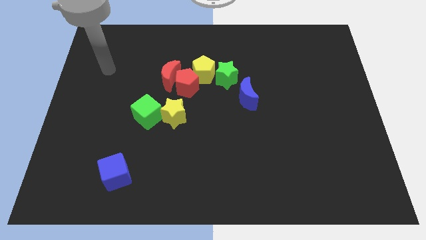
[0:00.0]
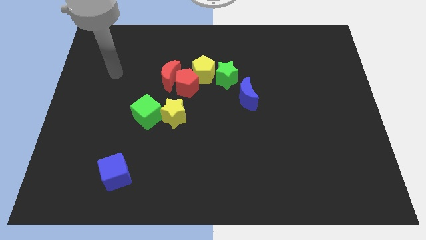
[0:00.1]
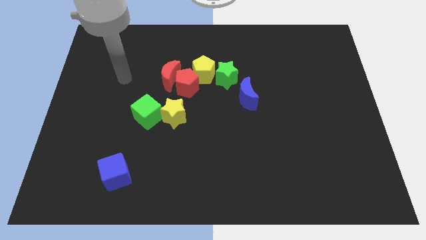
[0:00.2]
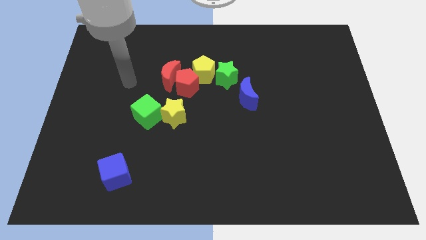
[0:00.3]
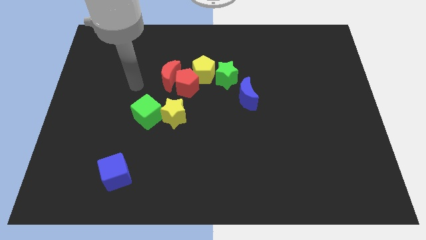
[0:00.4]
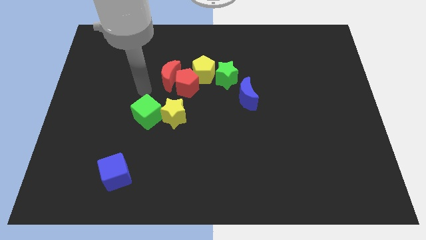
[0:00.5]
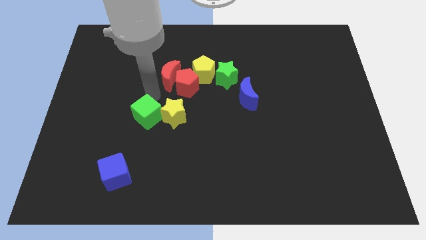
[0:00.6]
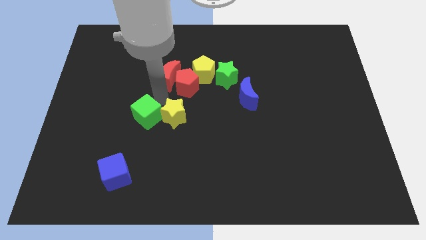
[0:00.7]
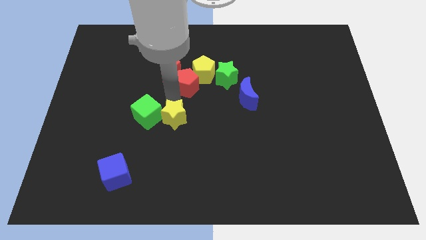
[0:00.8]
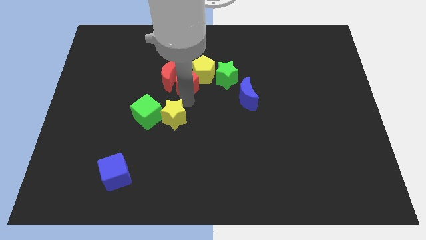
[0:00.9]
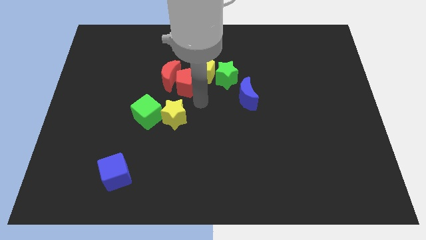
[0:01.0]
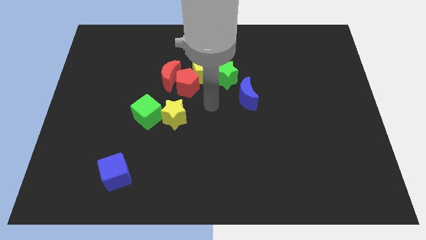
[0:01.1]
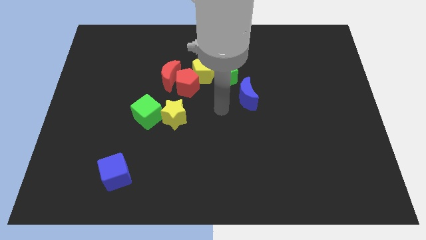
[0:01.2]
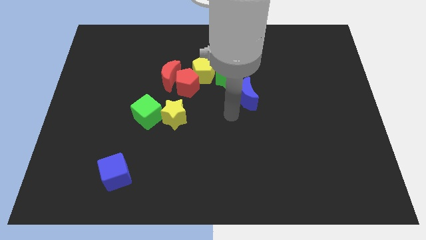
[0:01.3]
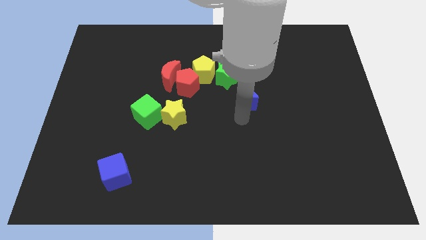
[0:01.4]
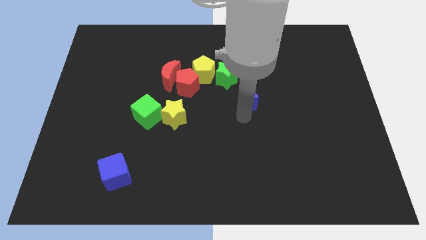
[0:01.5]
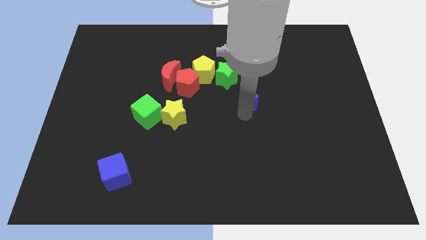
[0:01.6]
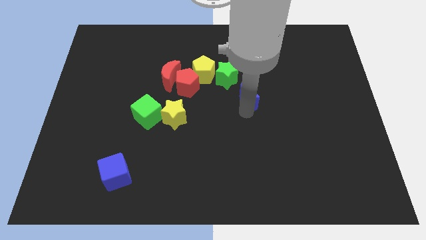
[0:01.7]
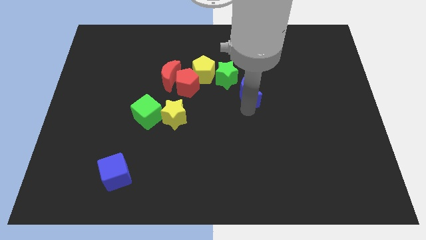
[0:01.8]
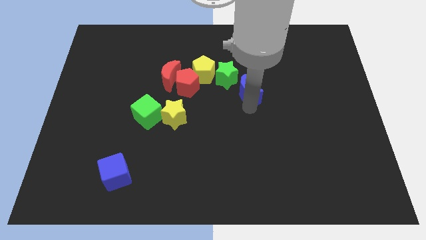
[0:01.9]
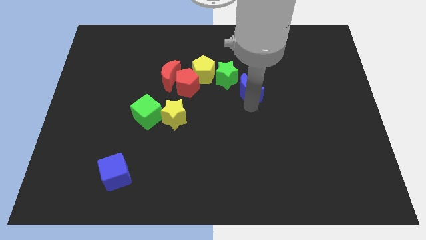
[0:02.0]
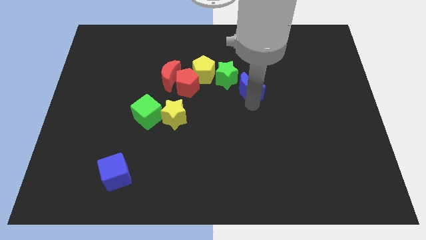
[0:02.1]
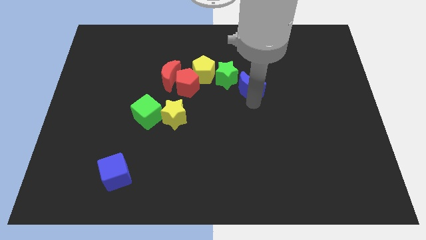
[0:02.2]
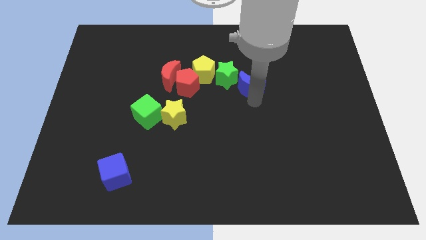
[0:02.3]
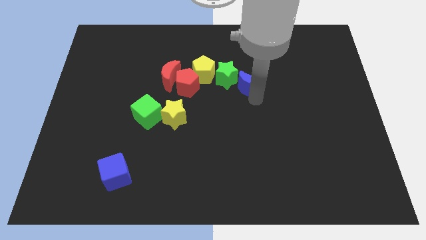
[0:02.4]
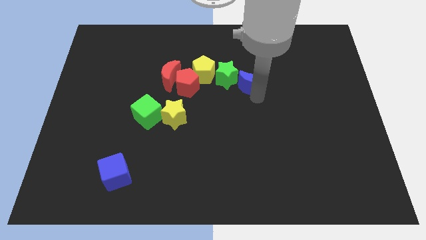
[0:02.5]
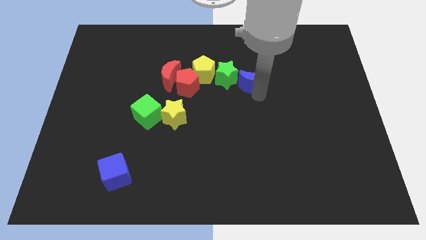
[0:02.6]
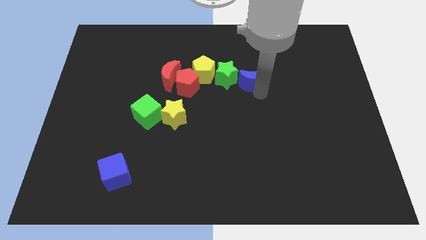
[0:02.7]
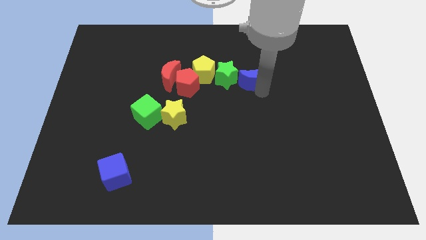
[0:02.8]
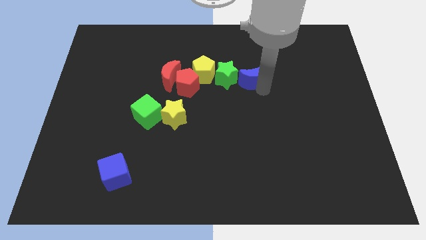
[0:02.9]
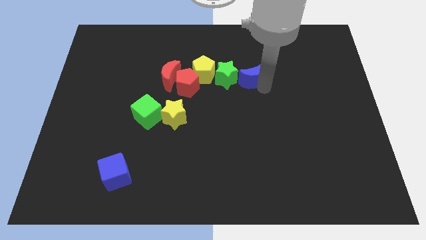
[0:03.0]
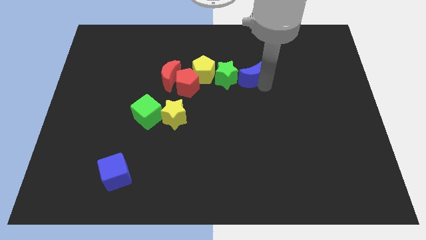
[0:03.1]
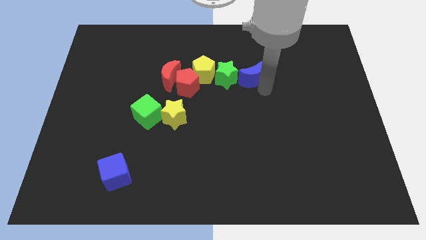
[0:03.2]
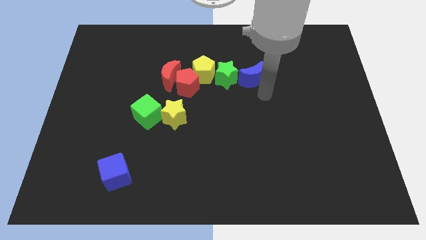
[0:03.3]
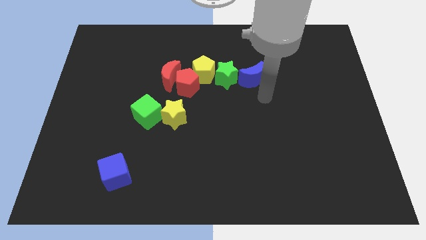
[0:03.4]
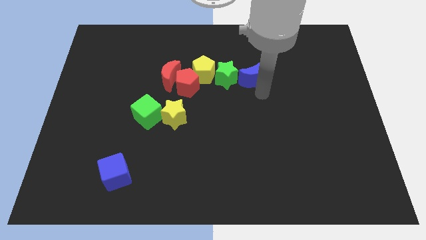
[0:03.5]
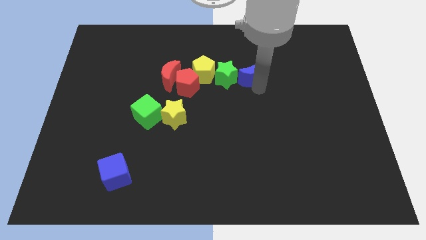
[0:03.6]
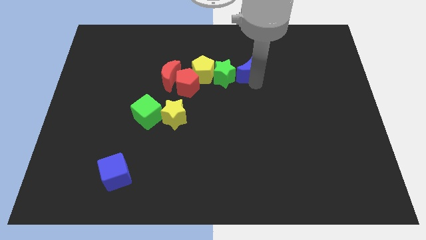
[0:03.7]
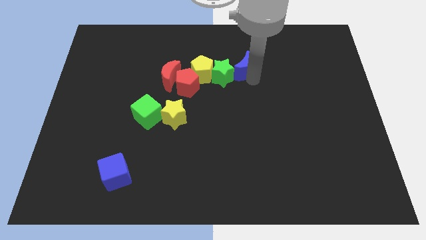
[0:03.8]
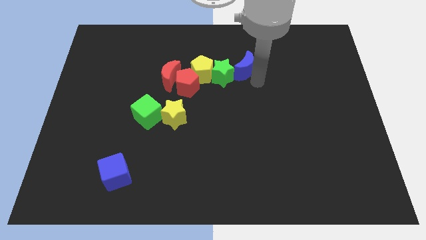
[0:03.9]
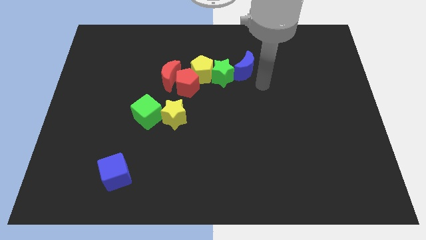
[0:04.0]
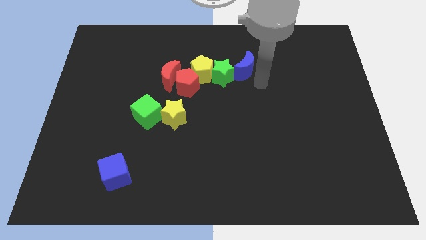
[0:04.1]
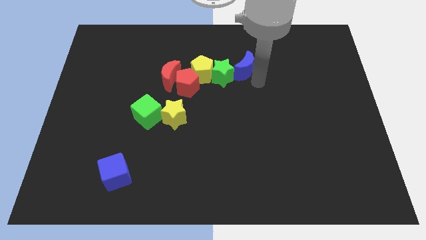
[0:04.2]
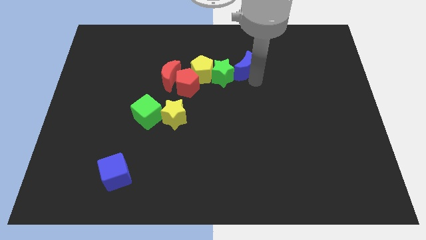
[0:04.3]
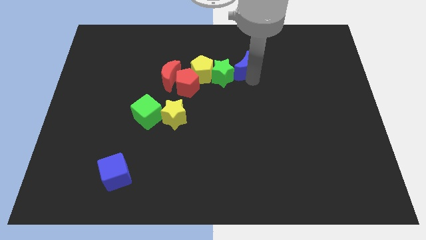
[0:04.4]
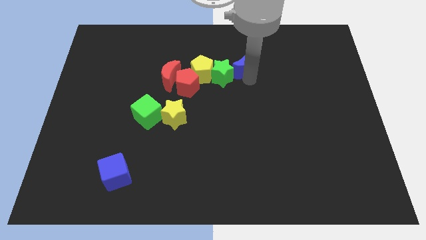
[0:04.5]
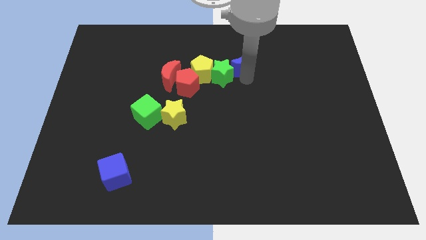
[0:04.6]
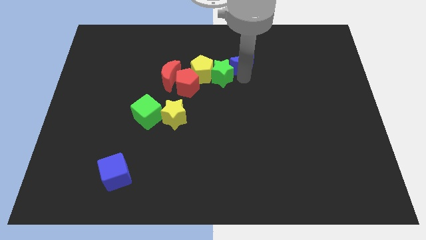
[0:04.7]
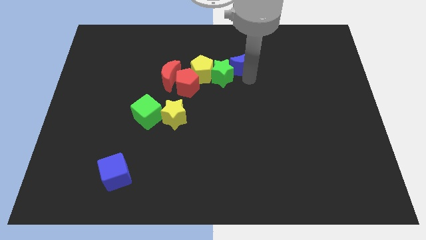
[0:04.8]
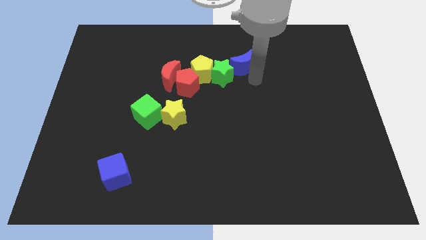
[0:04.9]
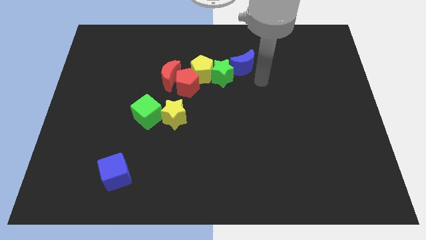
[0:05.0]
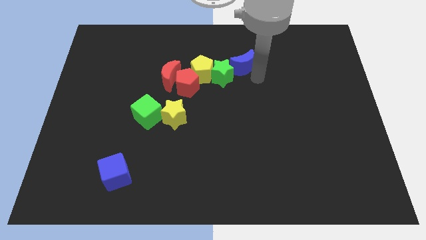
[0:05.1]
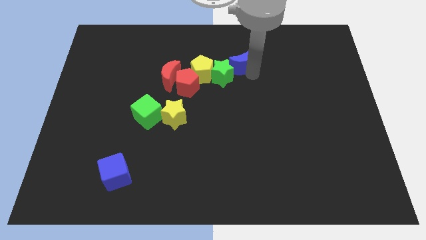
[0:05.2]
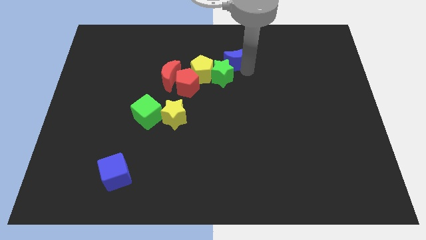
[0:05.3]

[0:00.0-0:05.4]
slide the blue moon up and to the left diagonally a little bit

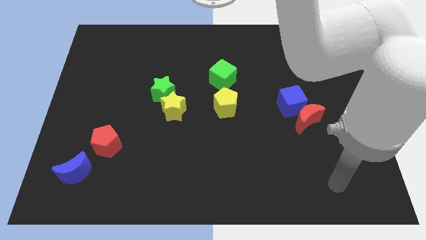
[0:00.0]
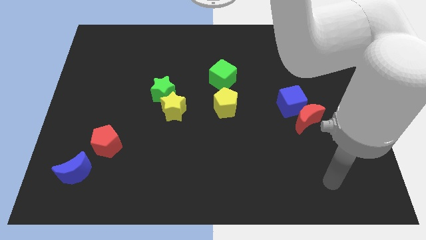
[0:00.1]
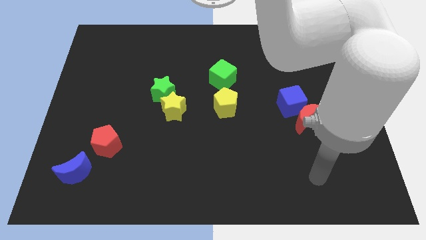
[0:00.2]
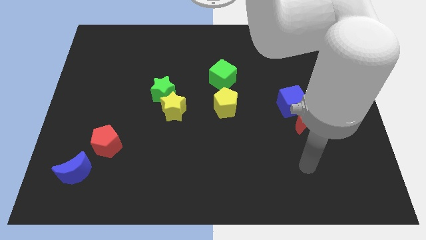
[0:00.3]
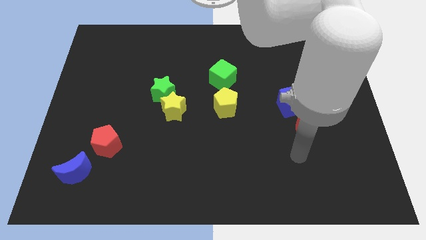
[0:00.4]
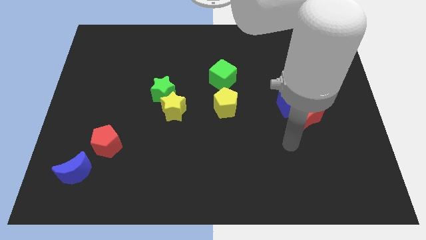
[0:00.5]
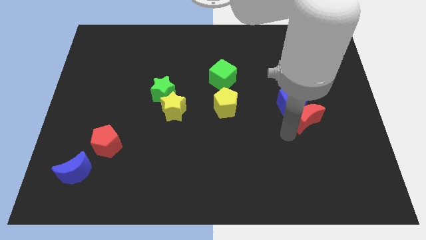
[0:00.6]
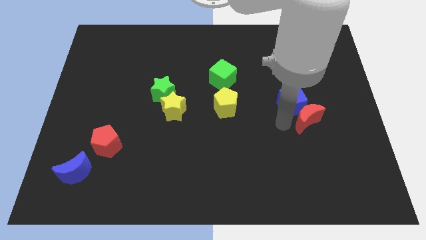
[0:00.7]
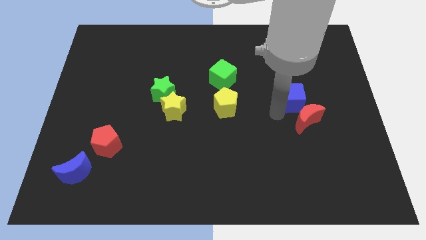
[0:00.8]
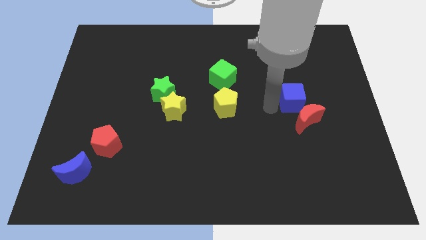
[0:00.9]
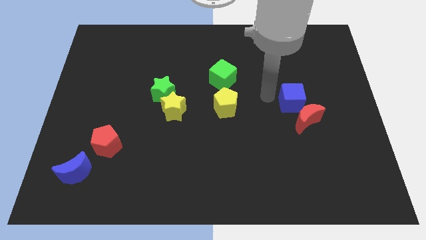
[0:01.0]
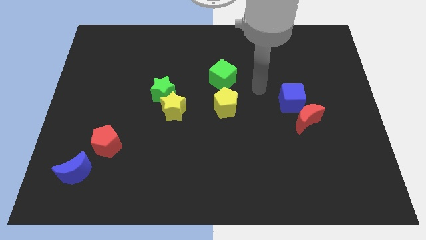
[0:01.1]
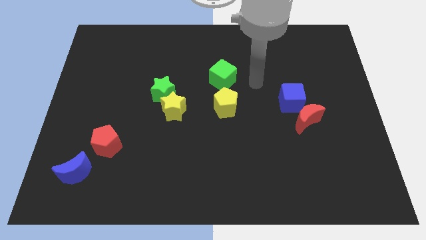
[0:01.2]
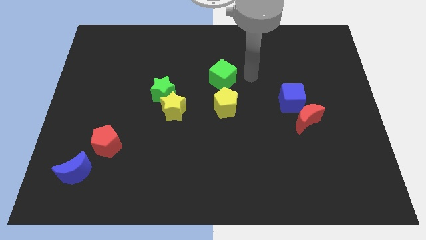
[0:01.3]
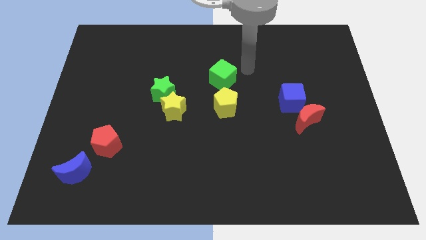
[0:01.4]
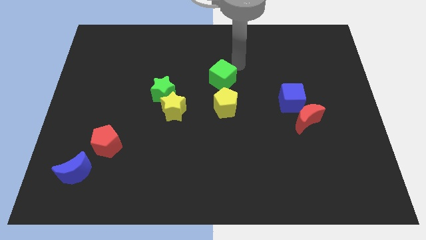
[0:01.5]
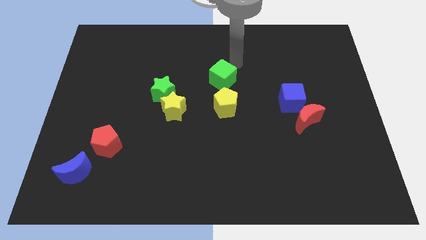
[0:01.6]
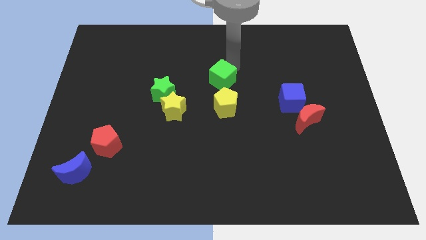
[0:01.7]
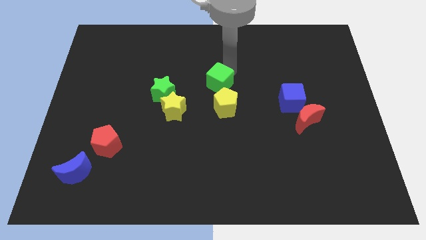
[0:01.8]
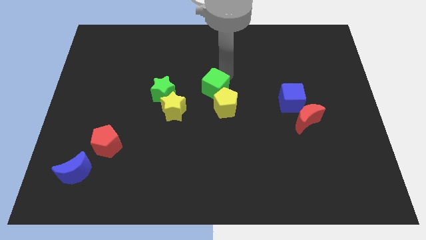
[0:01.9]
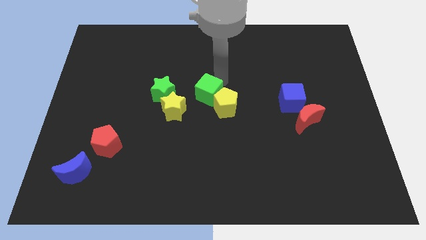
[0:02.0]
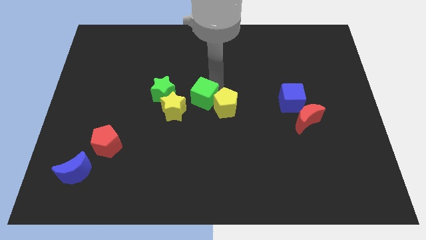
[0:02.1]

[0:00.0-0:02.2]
move the green cube somewhat downwards and to the left diagonally

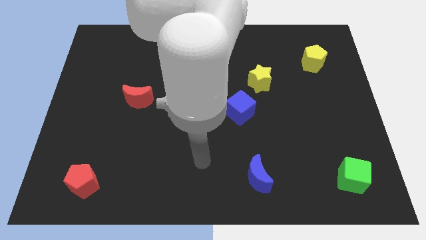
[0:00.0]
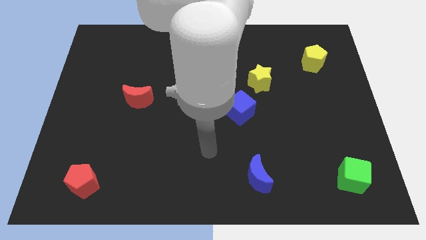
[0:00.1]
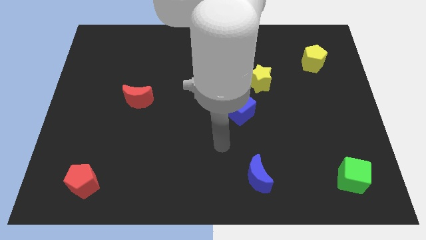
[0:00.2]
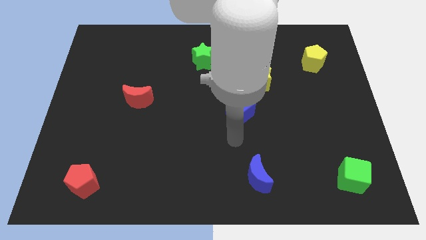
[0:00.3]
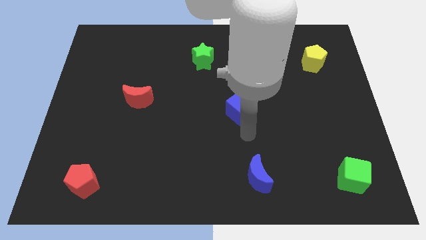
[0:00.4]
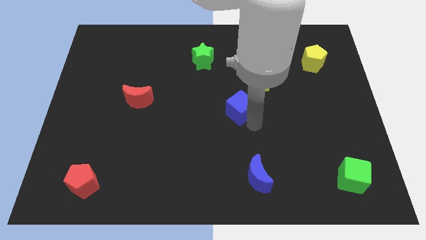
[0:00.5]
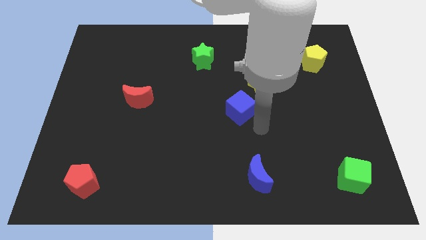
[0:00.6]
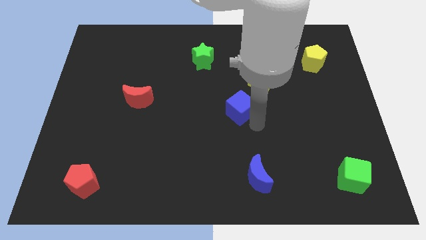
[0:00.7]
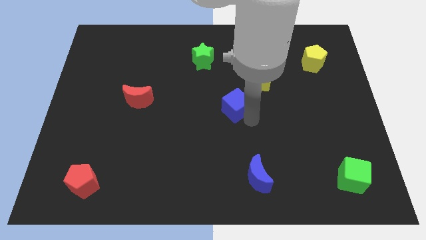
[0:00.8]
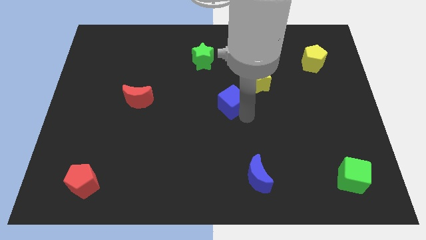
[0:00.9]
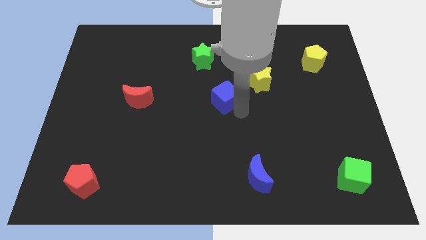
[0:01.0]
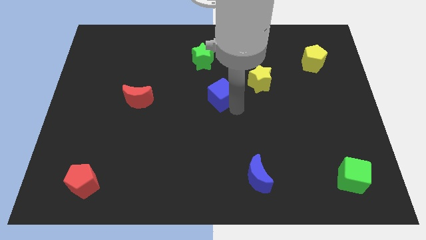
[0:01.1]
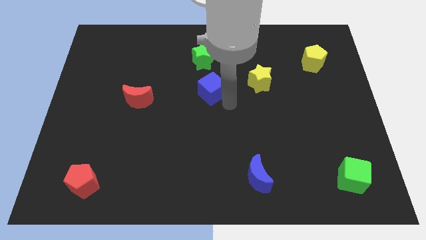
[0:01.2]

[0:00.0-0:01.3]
move the blue cube up and to the left slightly
